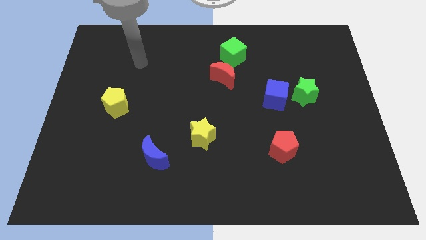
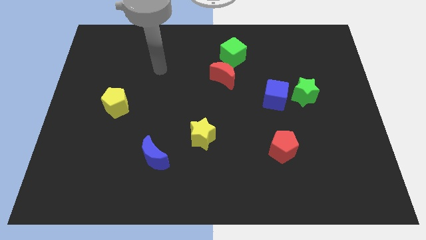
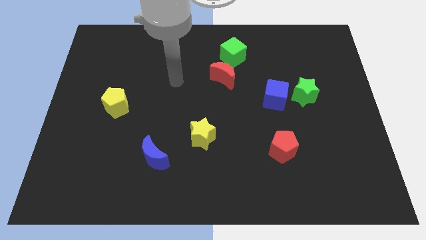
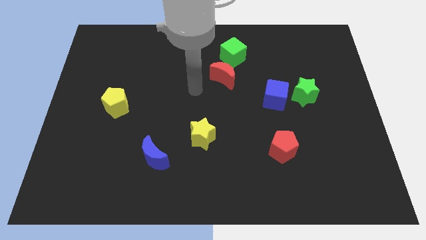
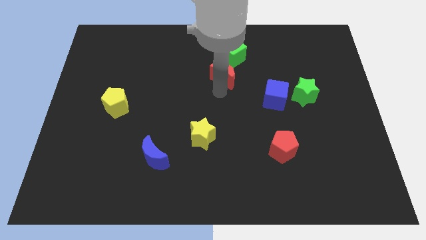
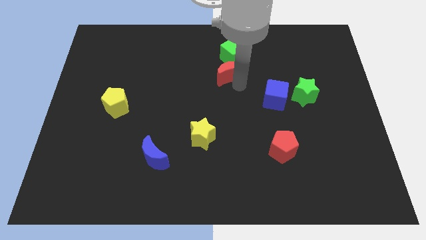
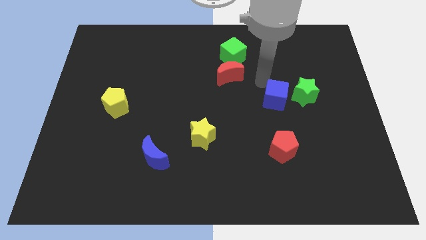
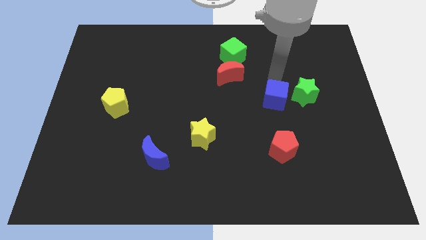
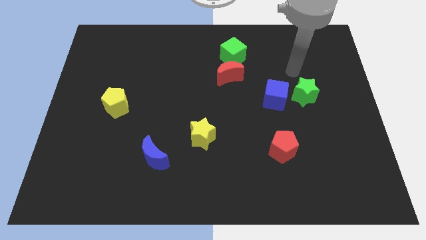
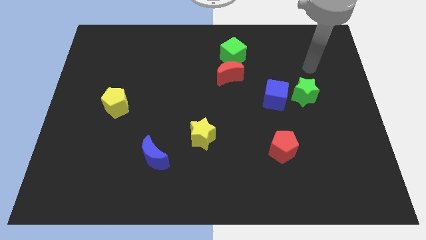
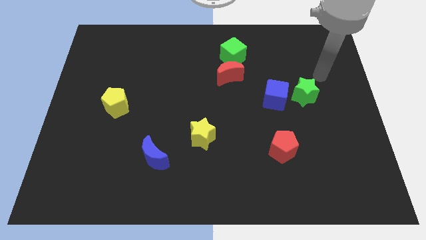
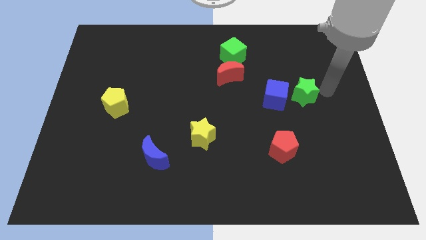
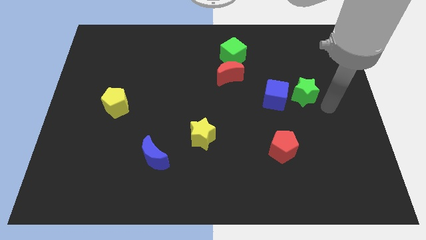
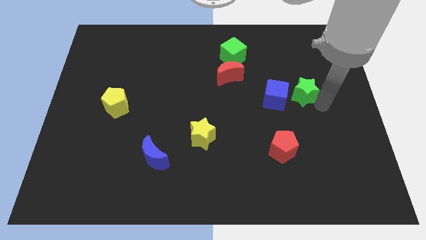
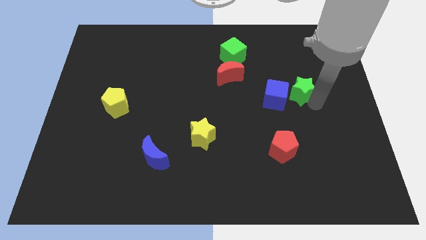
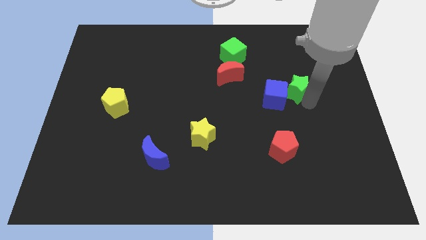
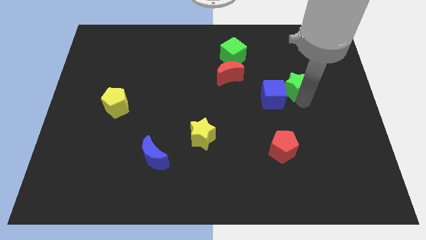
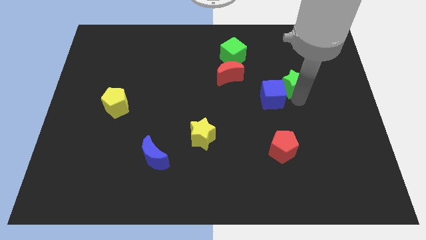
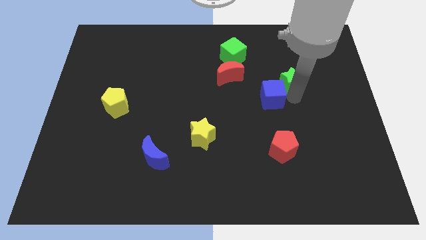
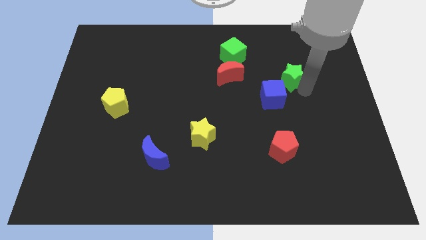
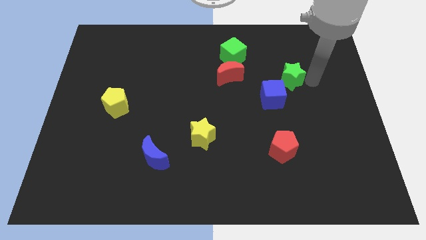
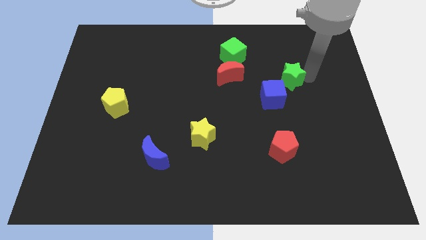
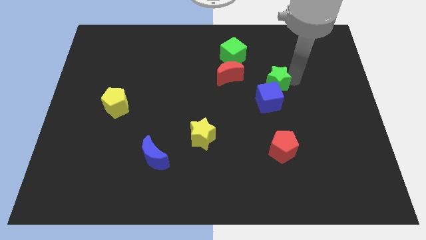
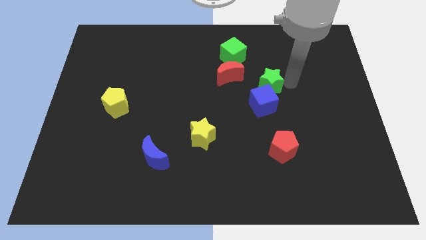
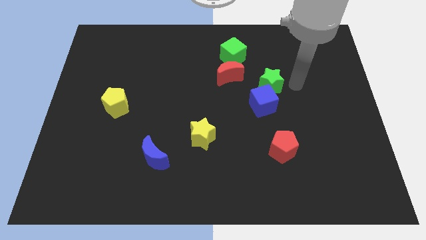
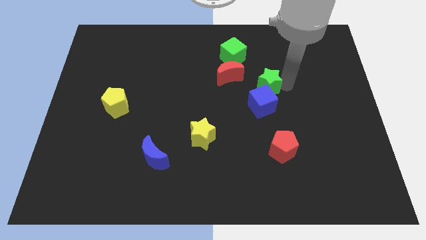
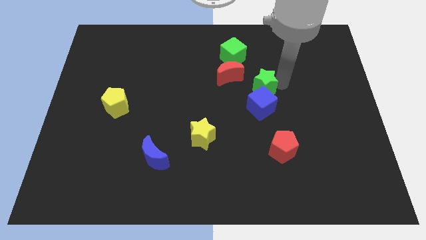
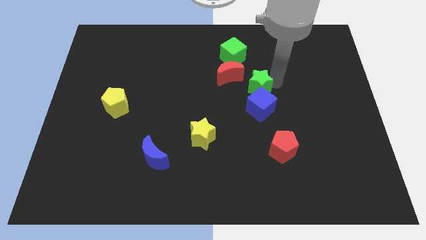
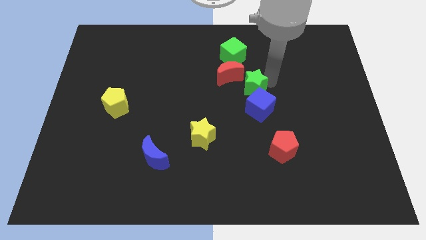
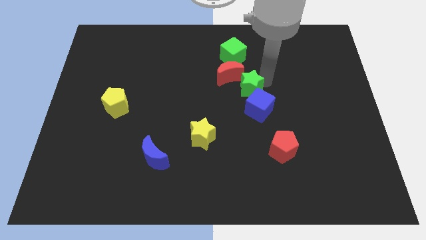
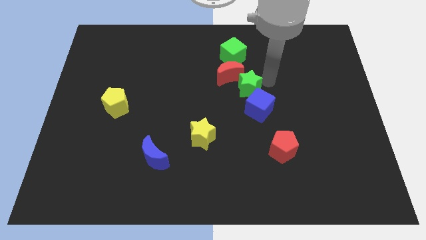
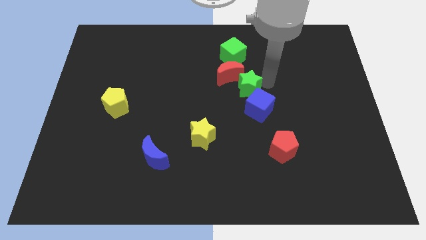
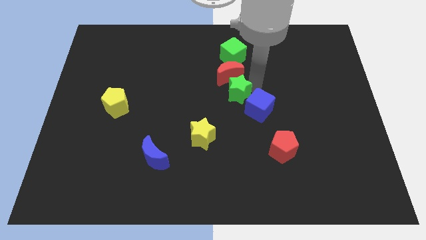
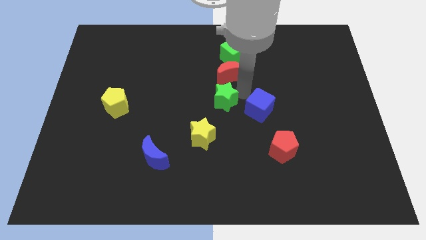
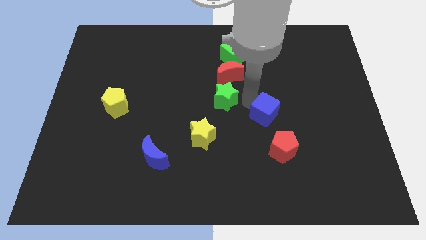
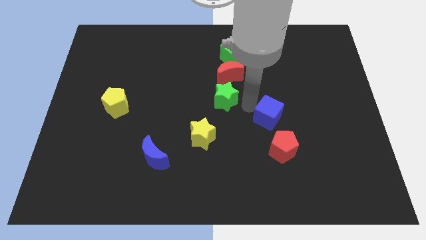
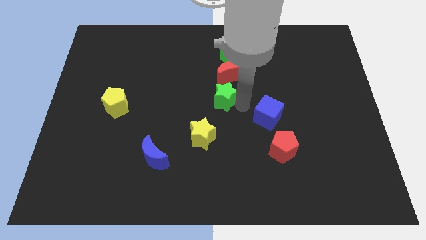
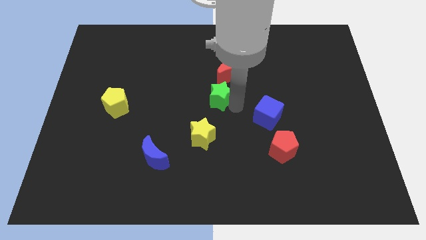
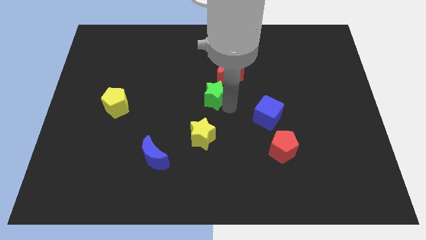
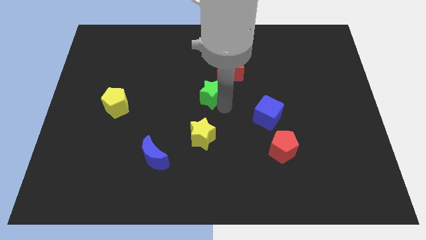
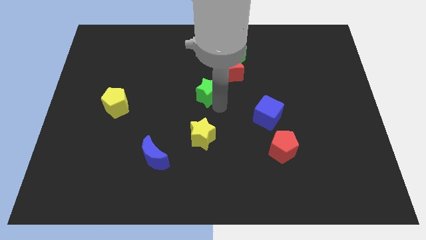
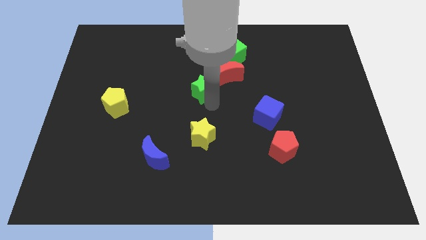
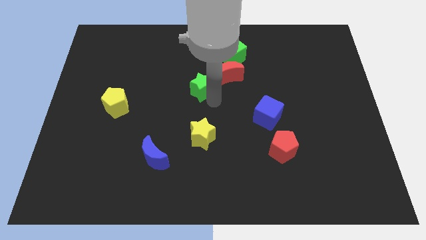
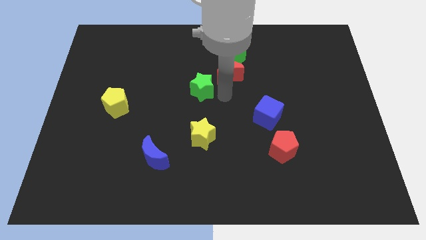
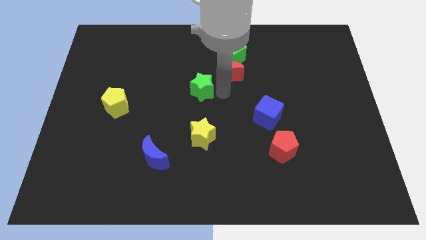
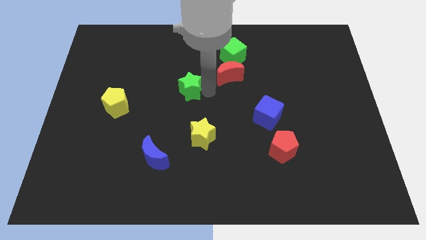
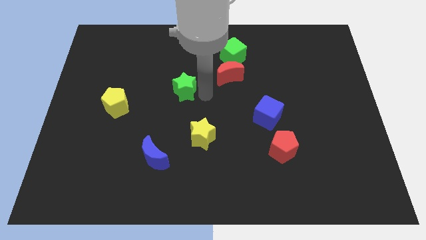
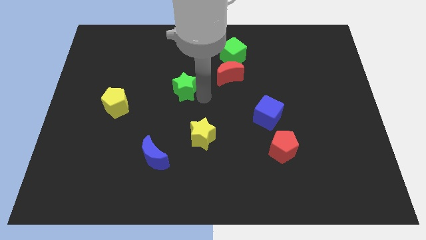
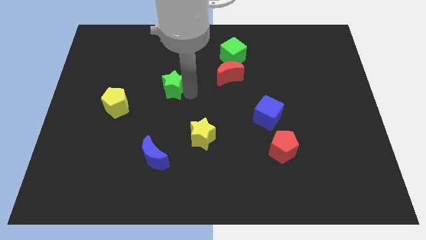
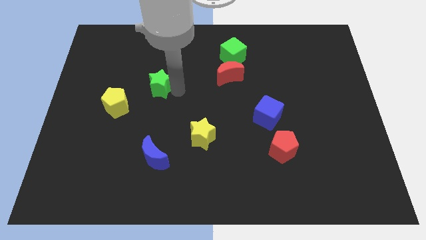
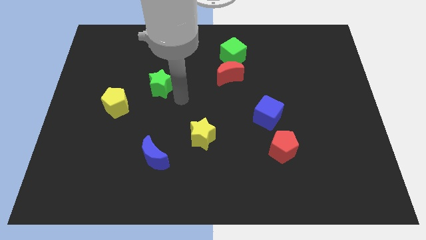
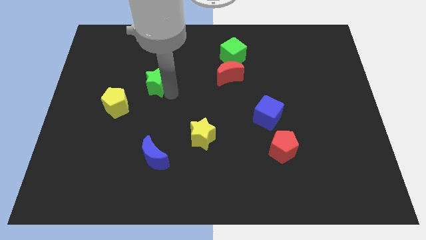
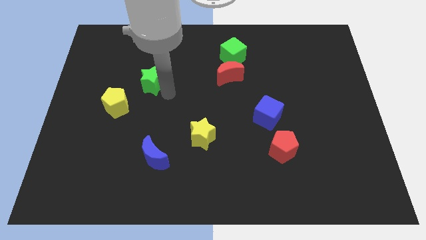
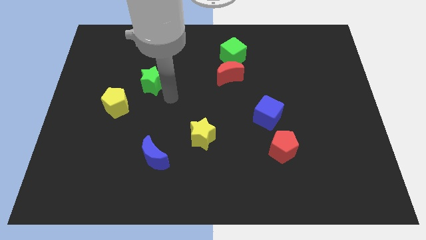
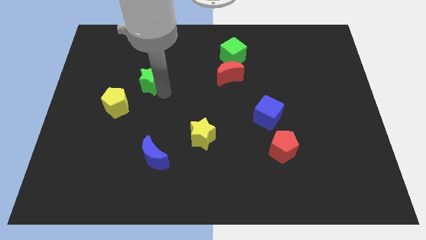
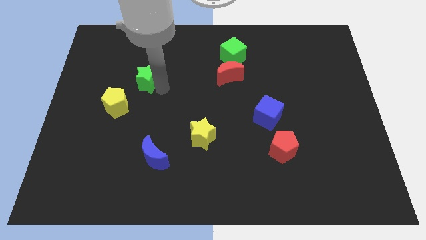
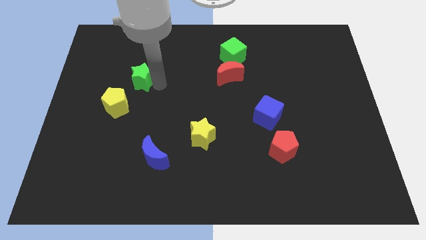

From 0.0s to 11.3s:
move the green star to the top of the yellow pentagon

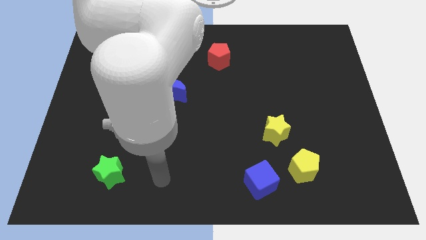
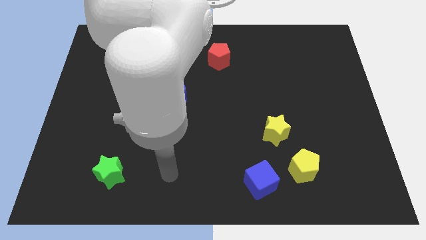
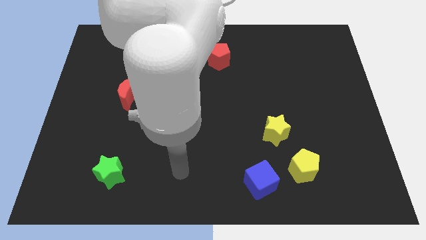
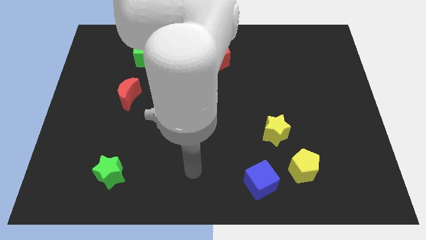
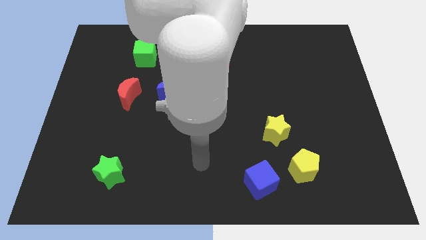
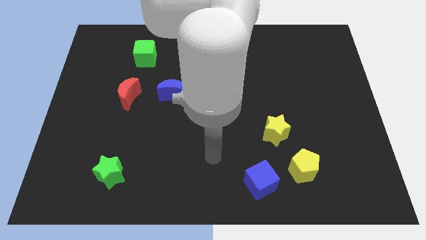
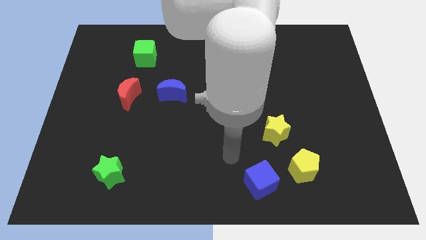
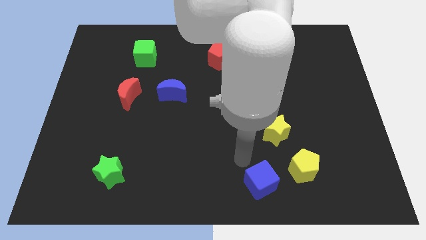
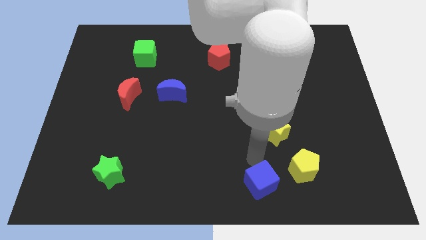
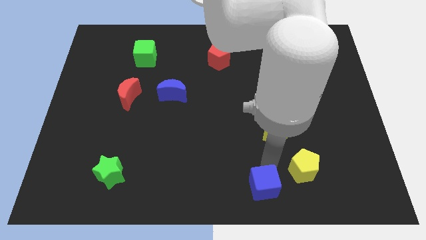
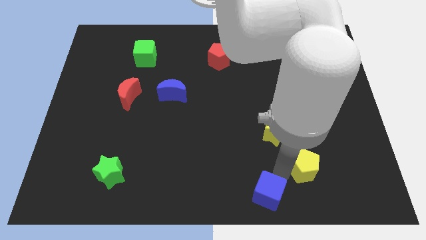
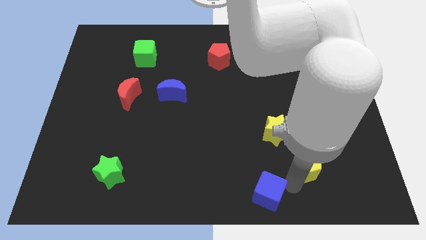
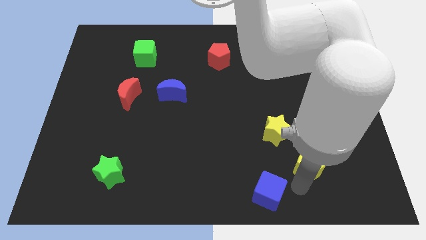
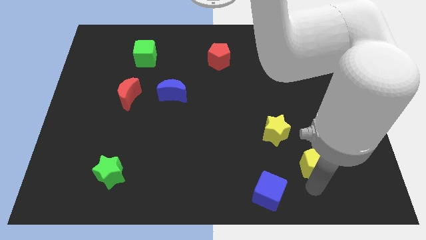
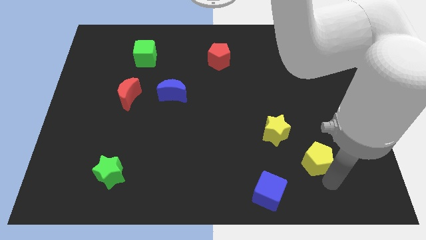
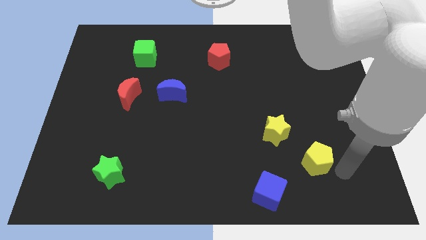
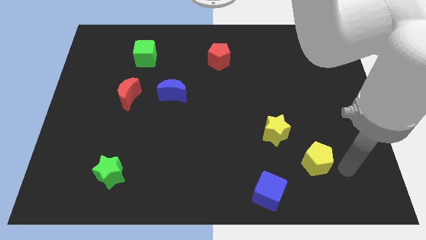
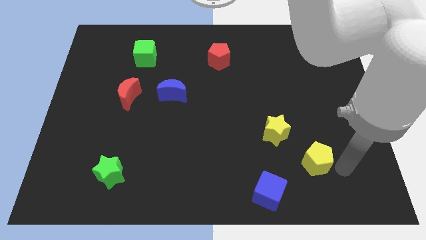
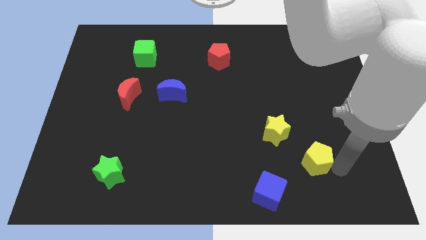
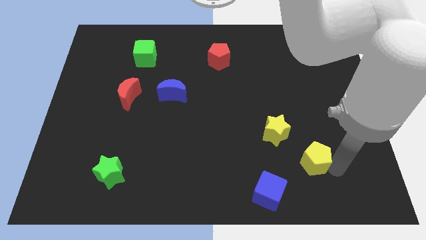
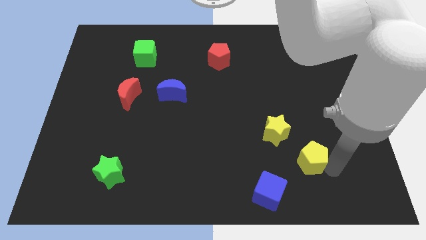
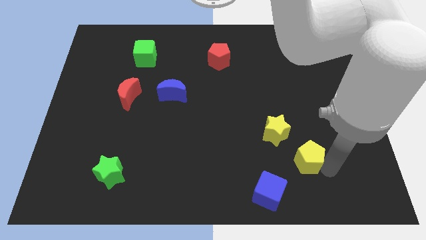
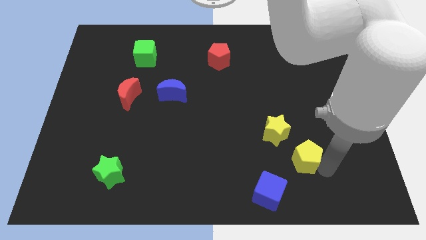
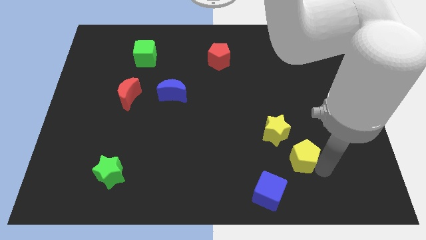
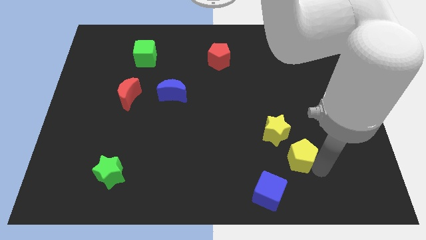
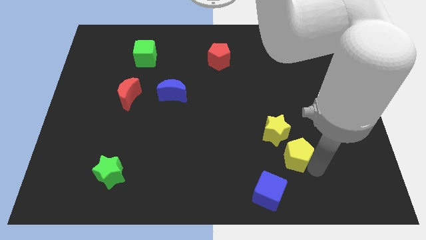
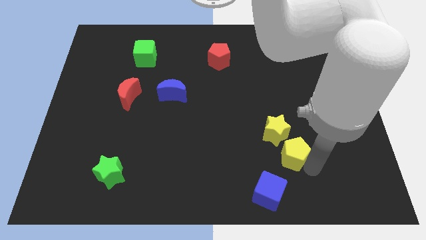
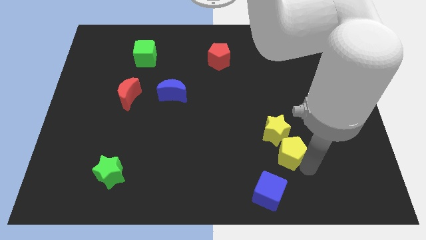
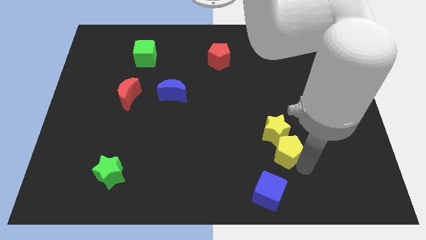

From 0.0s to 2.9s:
push the yellow pentagon to the top of the blue cube
